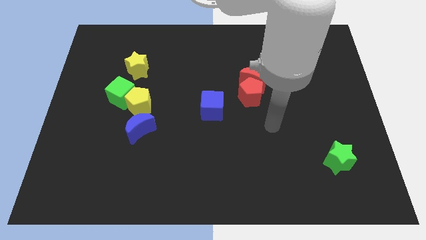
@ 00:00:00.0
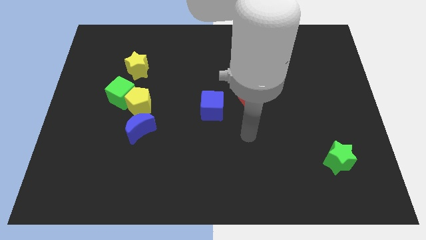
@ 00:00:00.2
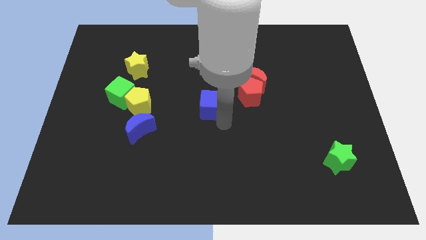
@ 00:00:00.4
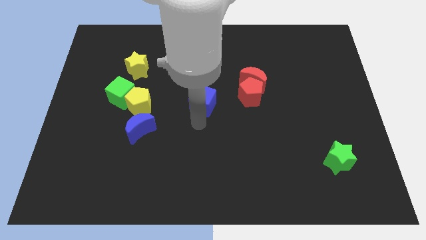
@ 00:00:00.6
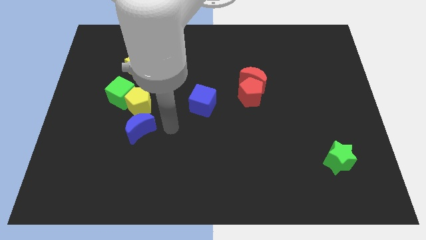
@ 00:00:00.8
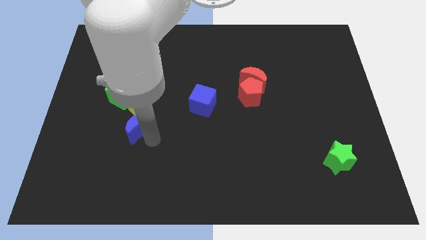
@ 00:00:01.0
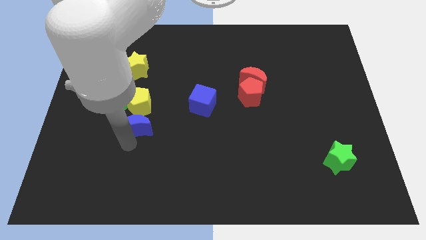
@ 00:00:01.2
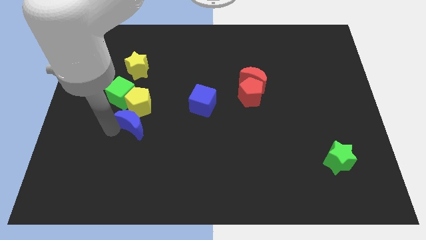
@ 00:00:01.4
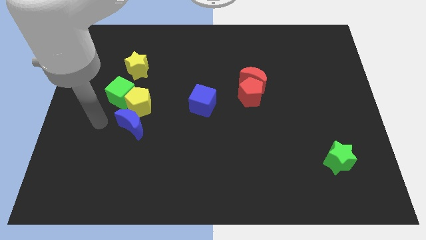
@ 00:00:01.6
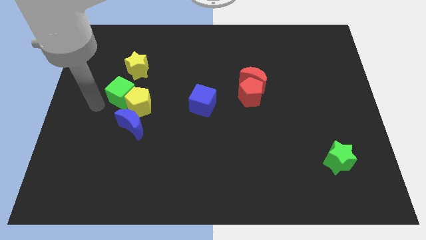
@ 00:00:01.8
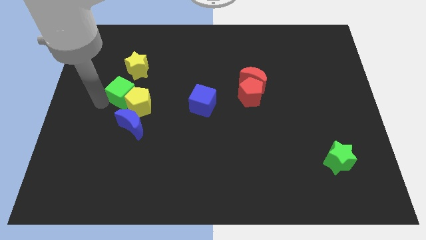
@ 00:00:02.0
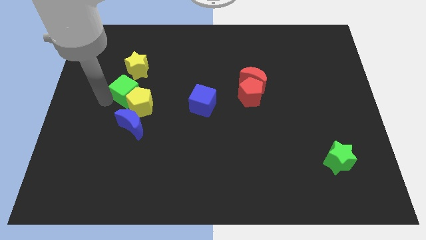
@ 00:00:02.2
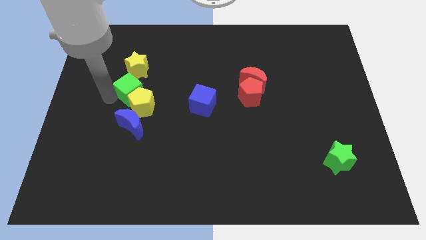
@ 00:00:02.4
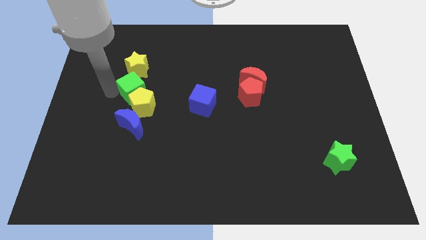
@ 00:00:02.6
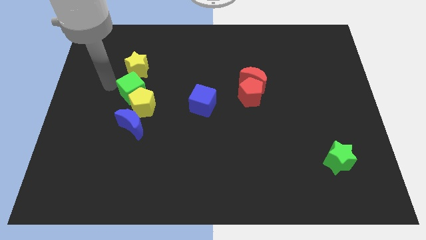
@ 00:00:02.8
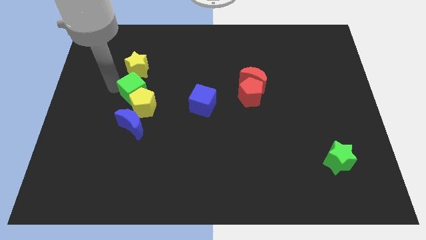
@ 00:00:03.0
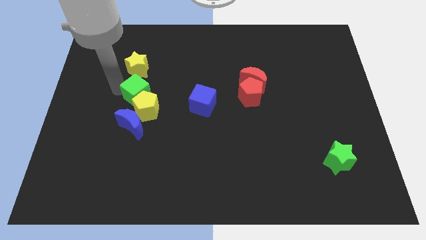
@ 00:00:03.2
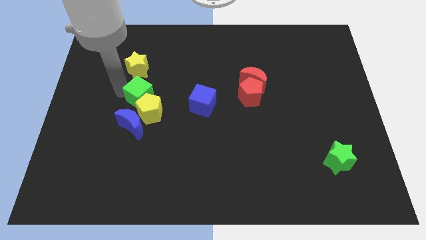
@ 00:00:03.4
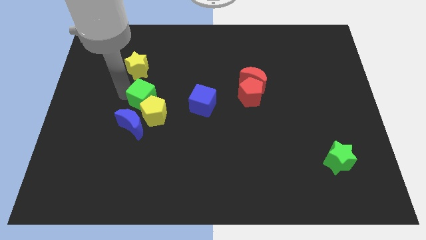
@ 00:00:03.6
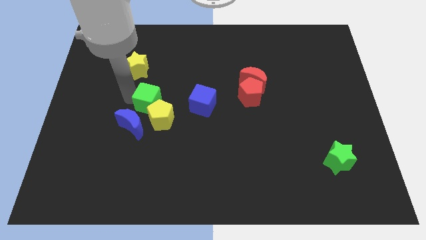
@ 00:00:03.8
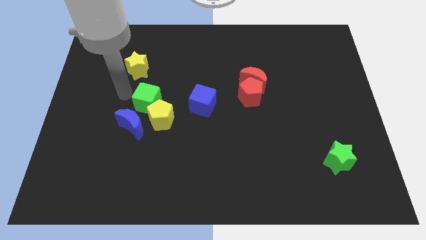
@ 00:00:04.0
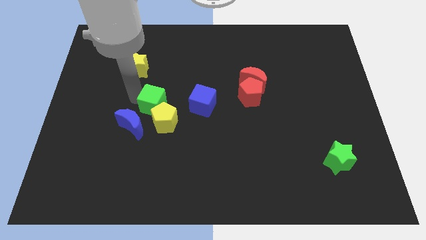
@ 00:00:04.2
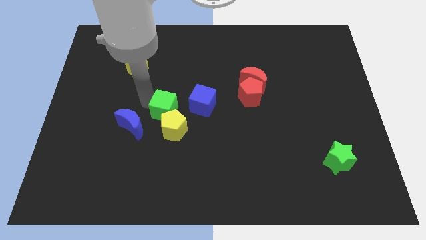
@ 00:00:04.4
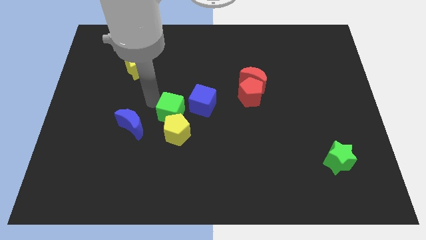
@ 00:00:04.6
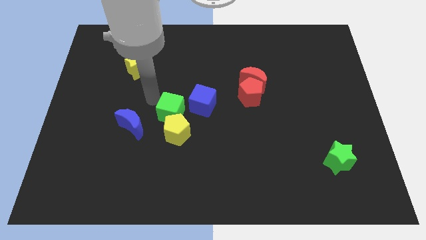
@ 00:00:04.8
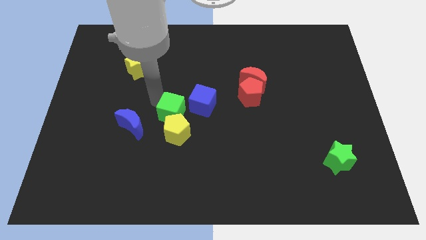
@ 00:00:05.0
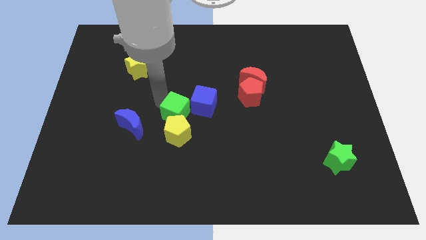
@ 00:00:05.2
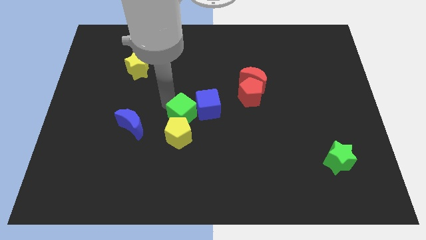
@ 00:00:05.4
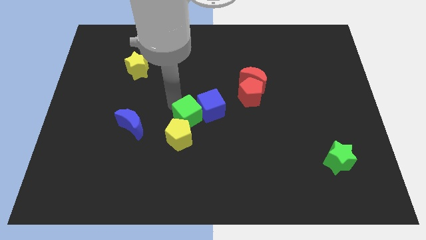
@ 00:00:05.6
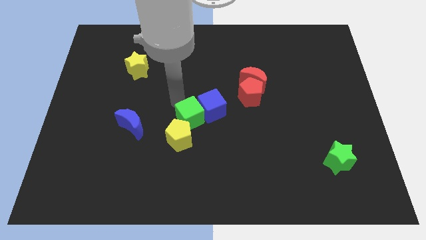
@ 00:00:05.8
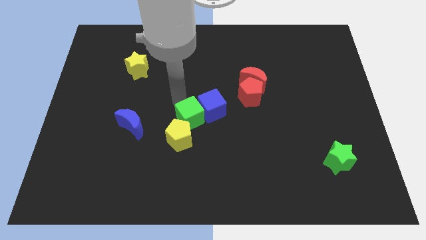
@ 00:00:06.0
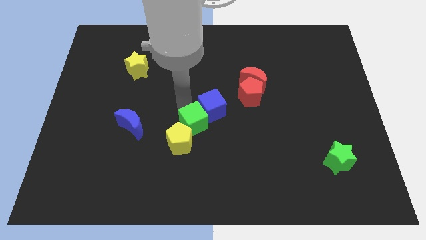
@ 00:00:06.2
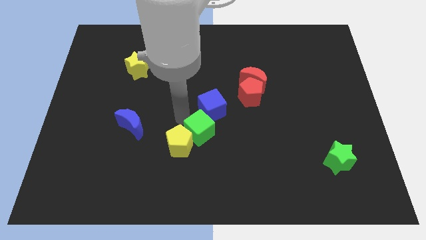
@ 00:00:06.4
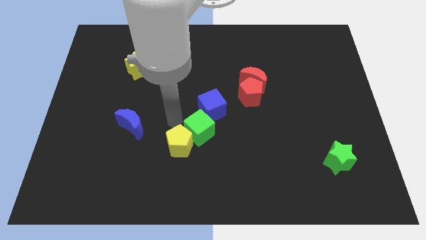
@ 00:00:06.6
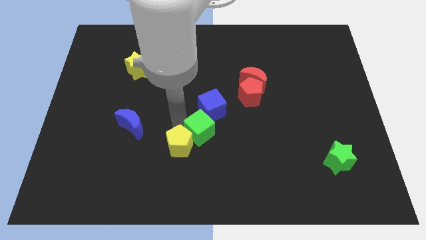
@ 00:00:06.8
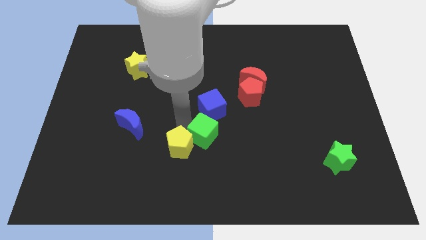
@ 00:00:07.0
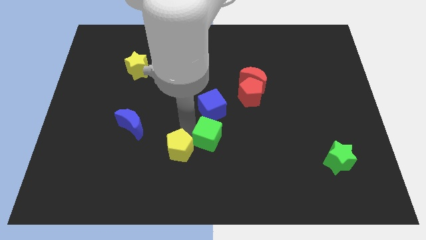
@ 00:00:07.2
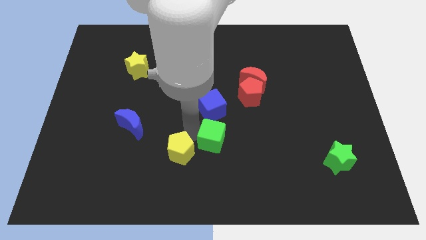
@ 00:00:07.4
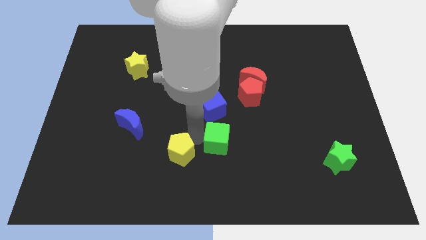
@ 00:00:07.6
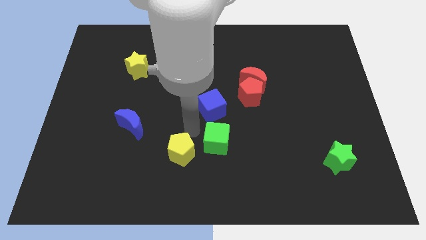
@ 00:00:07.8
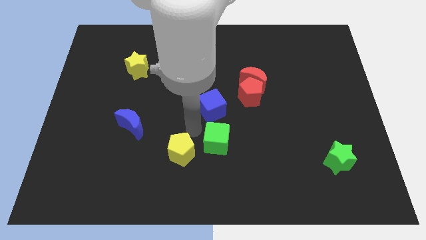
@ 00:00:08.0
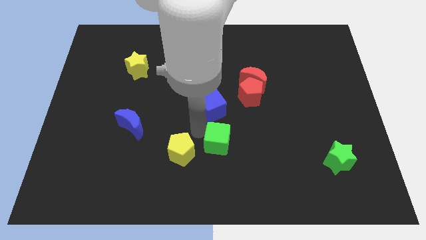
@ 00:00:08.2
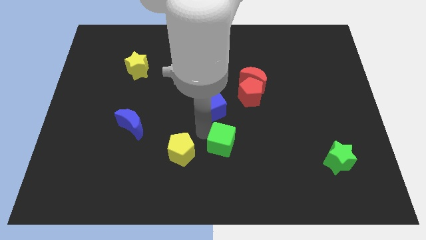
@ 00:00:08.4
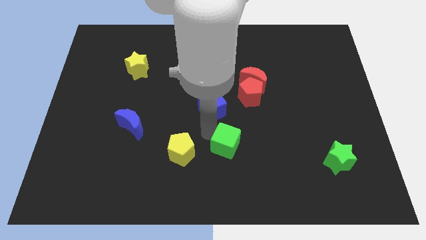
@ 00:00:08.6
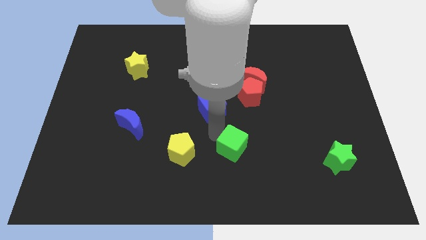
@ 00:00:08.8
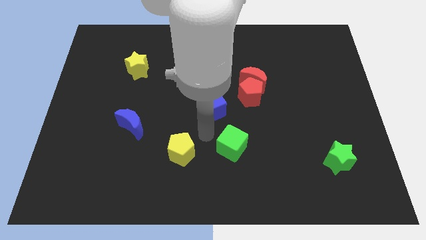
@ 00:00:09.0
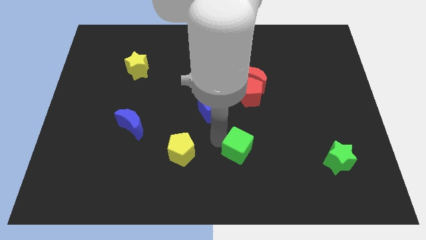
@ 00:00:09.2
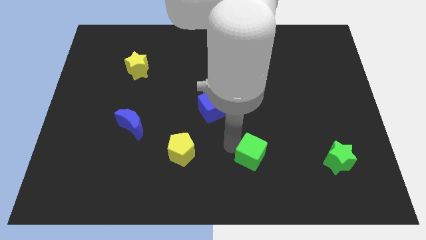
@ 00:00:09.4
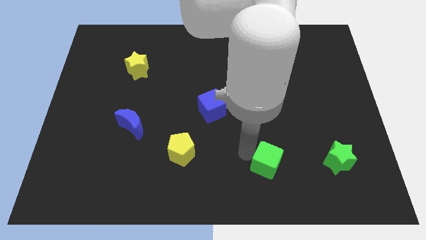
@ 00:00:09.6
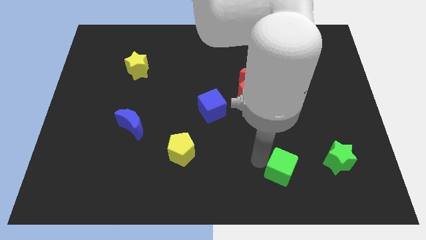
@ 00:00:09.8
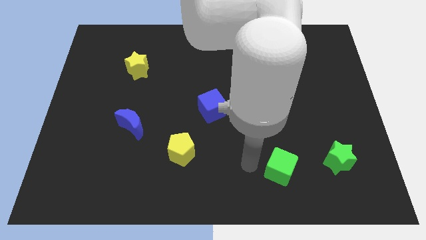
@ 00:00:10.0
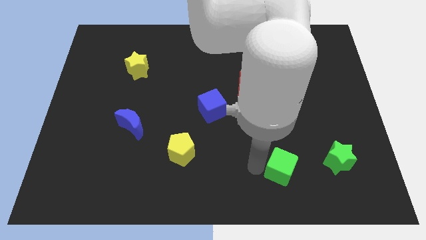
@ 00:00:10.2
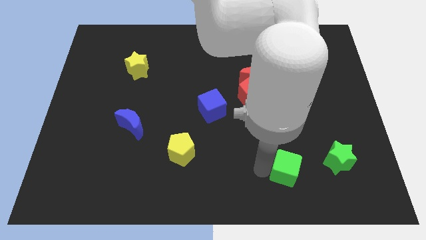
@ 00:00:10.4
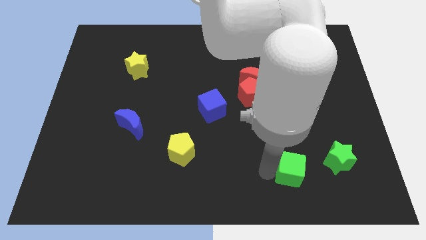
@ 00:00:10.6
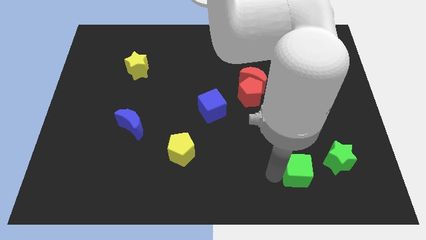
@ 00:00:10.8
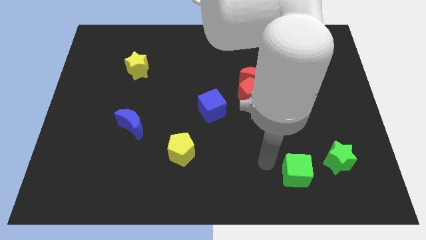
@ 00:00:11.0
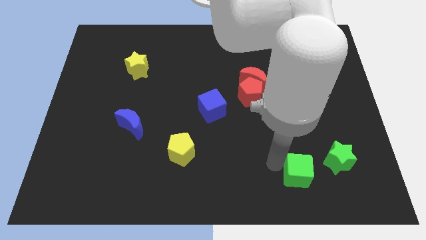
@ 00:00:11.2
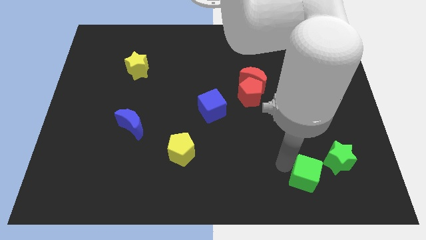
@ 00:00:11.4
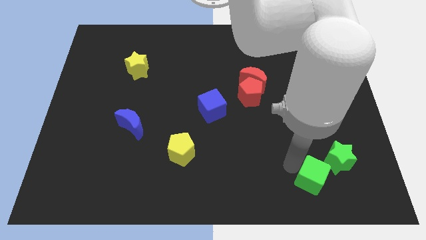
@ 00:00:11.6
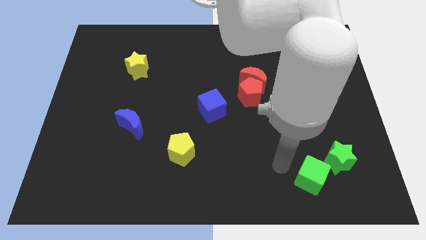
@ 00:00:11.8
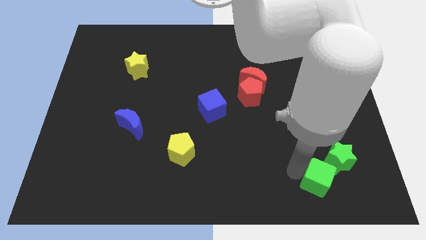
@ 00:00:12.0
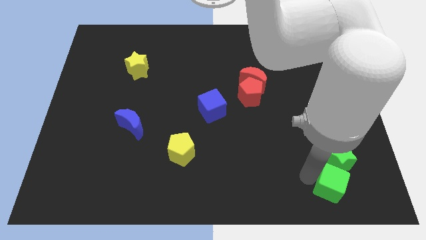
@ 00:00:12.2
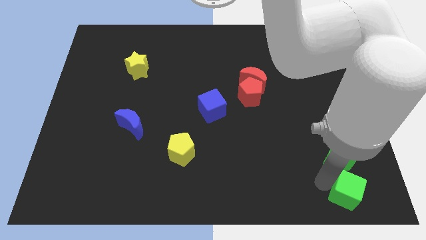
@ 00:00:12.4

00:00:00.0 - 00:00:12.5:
put the green cube to the bottom right corner
